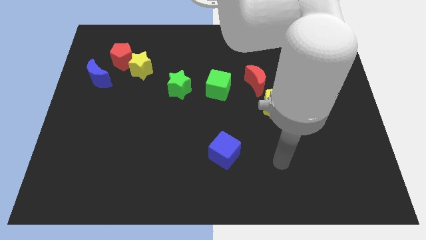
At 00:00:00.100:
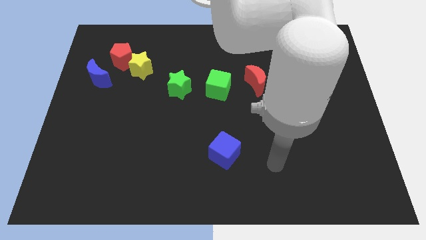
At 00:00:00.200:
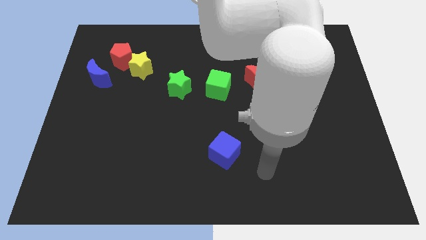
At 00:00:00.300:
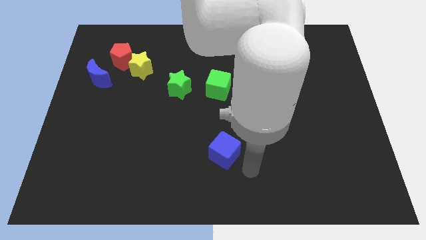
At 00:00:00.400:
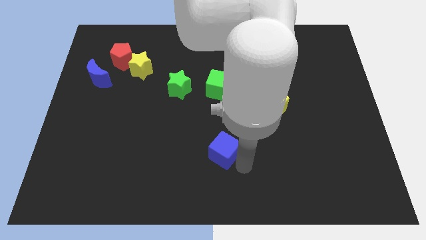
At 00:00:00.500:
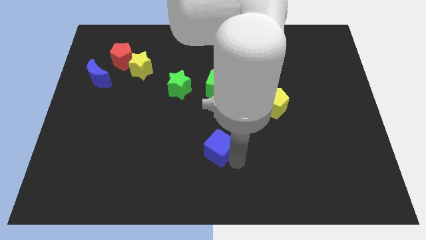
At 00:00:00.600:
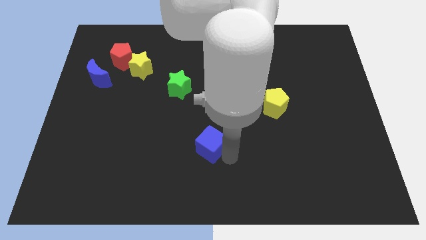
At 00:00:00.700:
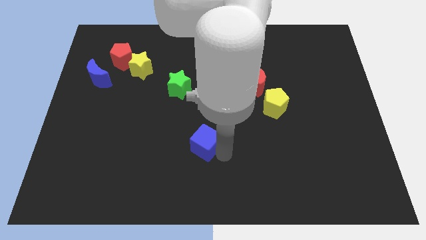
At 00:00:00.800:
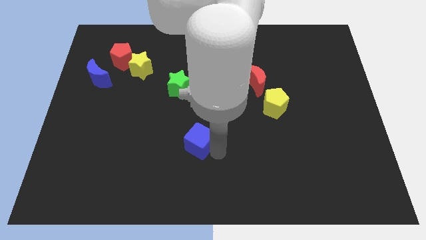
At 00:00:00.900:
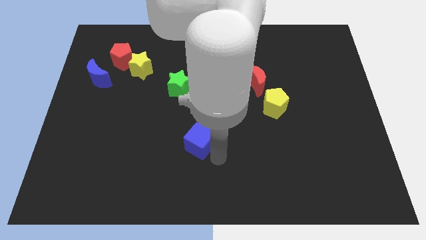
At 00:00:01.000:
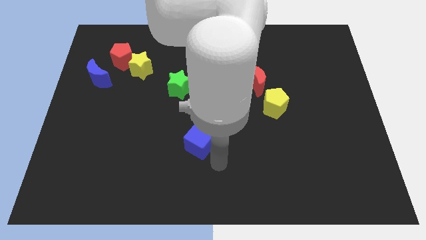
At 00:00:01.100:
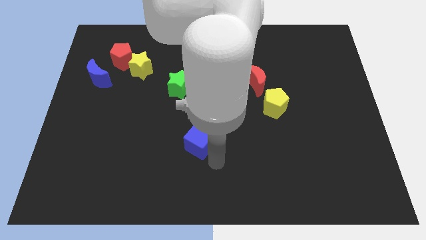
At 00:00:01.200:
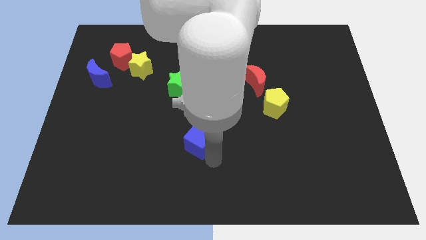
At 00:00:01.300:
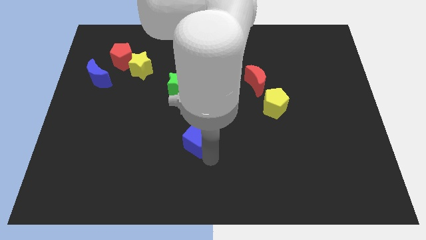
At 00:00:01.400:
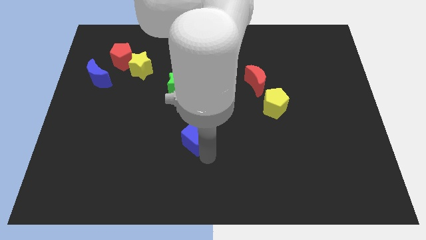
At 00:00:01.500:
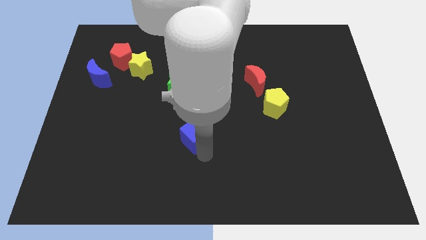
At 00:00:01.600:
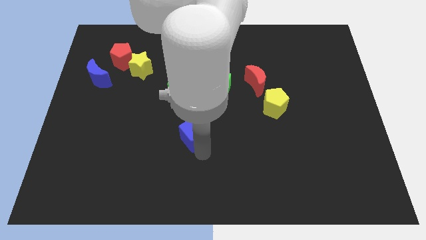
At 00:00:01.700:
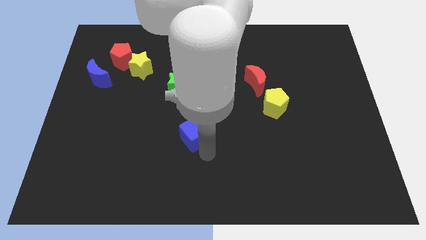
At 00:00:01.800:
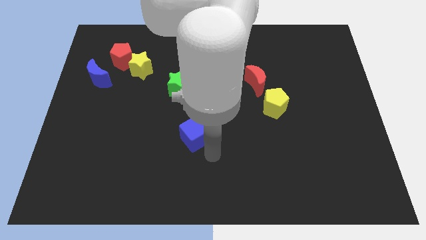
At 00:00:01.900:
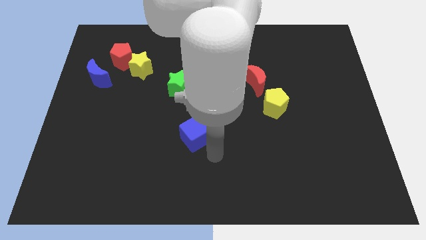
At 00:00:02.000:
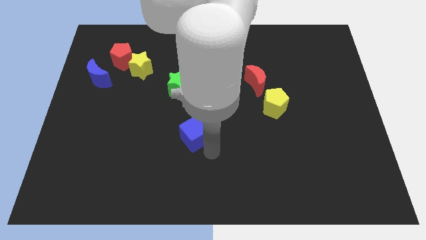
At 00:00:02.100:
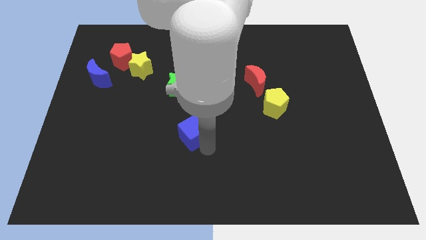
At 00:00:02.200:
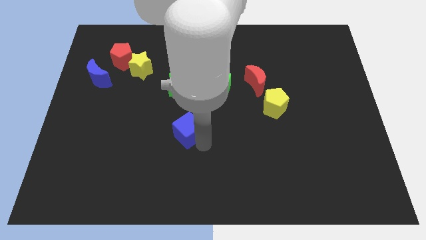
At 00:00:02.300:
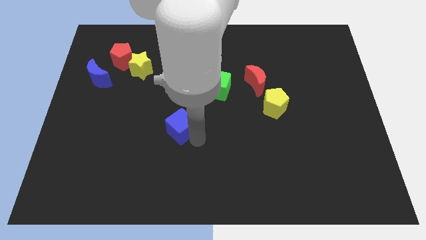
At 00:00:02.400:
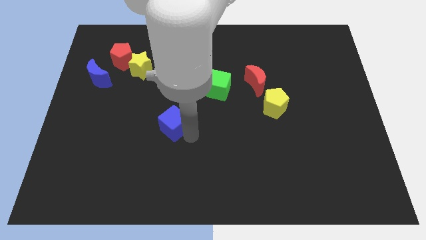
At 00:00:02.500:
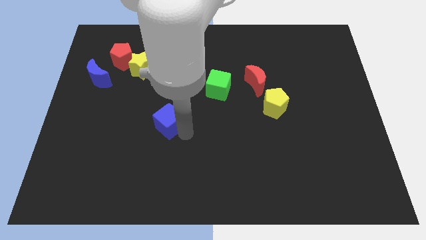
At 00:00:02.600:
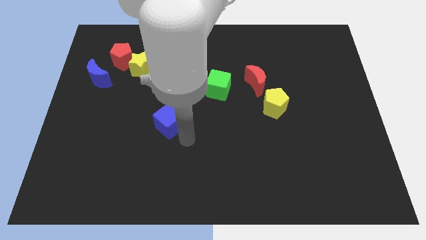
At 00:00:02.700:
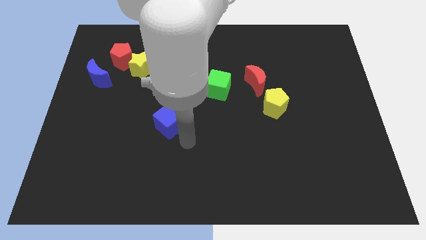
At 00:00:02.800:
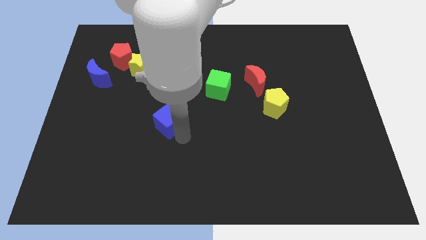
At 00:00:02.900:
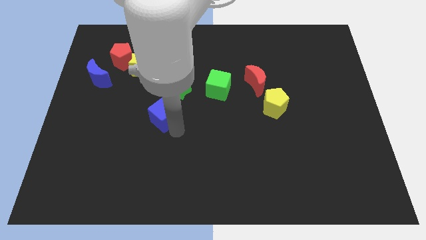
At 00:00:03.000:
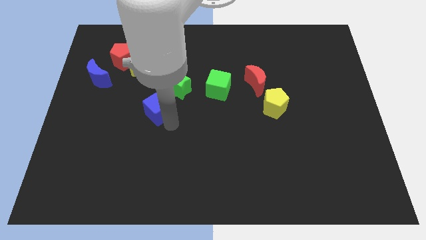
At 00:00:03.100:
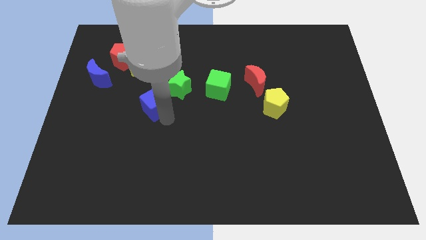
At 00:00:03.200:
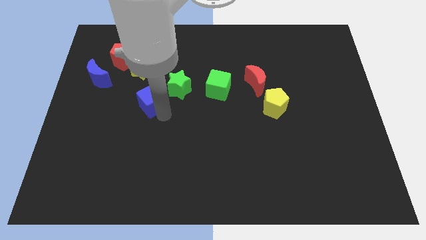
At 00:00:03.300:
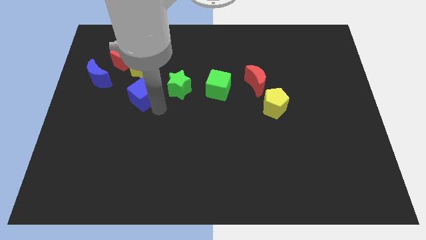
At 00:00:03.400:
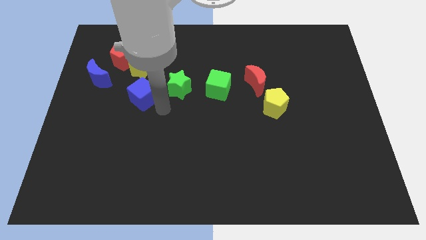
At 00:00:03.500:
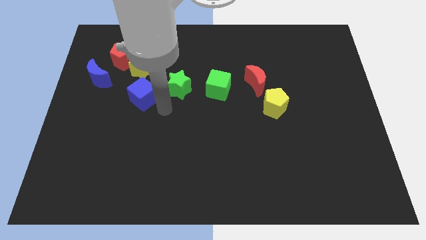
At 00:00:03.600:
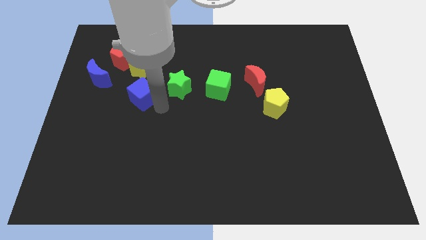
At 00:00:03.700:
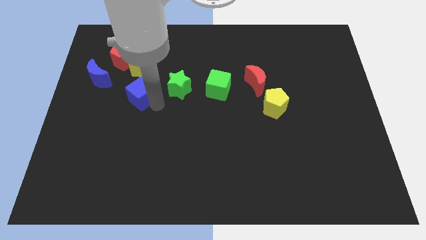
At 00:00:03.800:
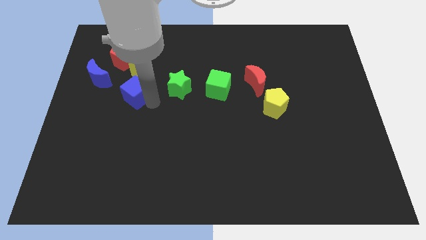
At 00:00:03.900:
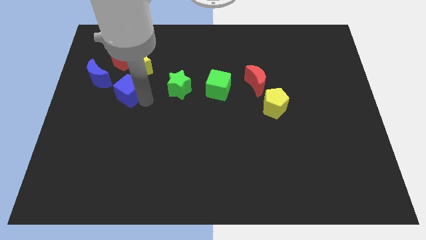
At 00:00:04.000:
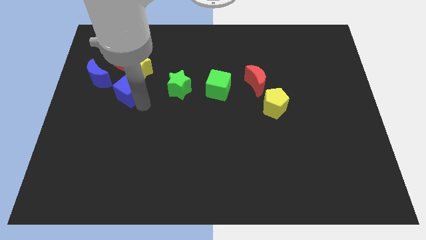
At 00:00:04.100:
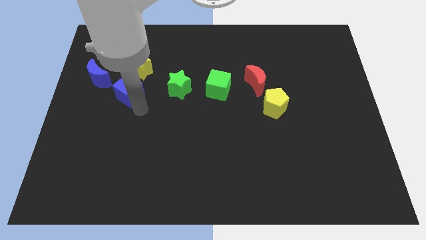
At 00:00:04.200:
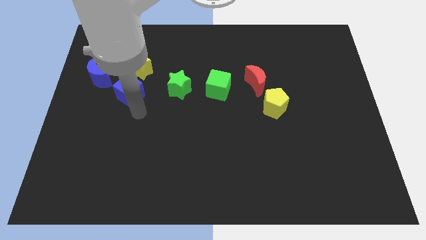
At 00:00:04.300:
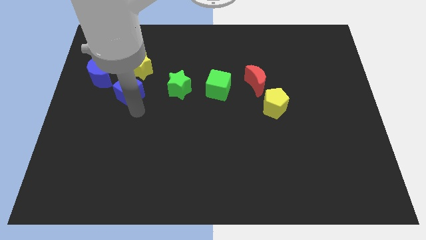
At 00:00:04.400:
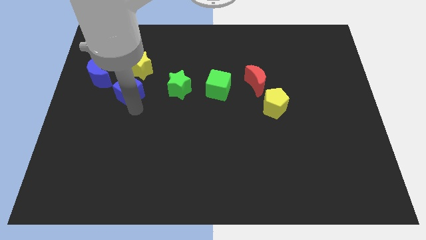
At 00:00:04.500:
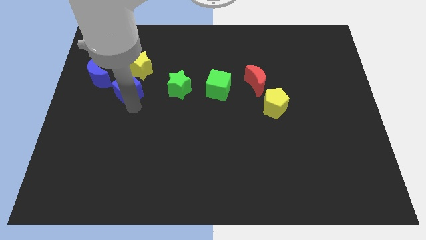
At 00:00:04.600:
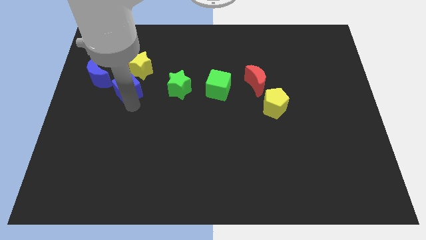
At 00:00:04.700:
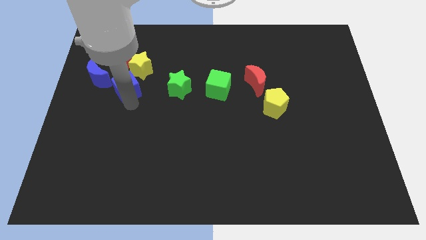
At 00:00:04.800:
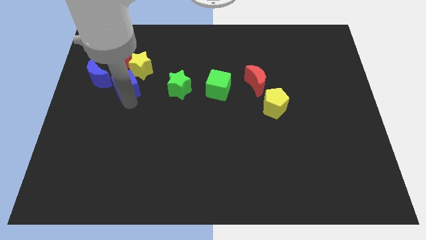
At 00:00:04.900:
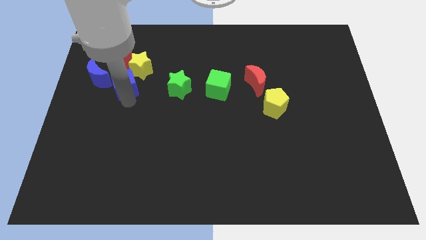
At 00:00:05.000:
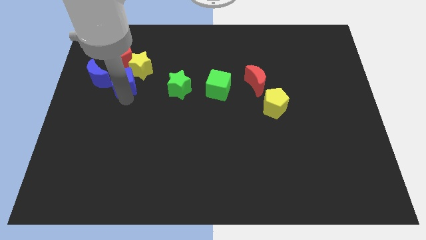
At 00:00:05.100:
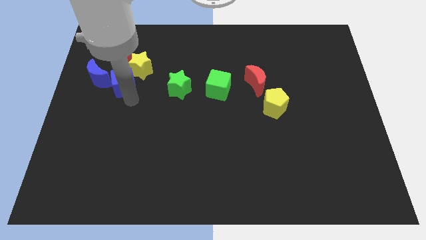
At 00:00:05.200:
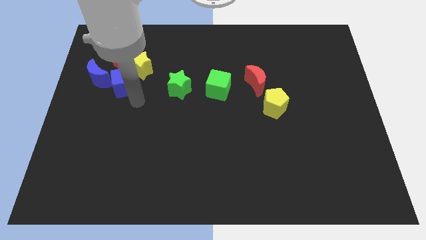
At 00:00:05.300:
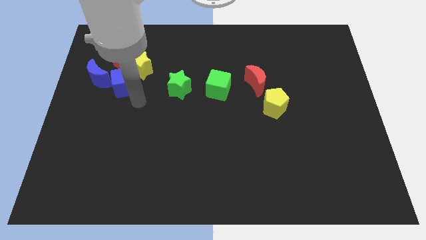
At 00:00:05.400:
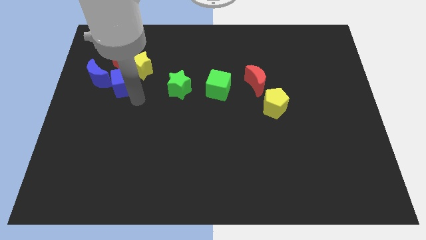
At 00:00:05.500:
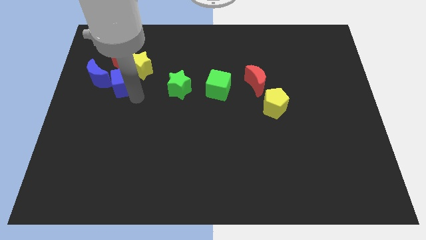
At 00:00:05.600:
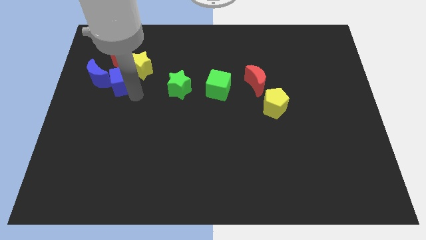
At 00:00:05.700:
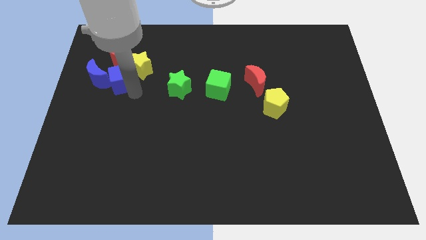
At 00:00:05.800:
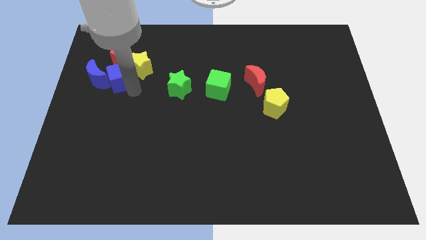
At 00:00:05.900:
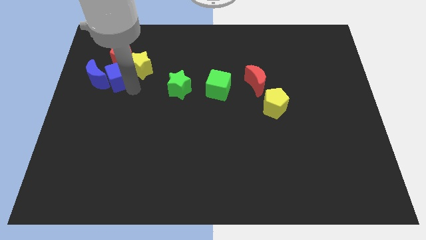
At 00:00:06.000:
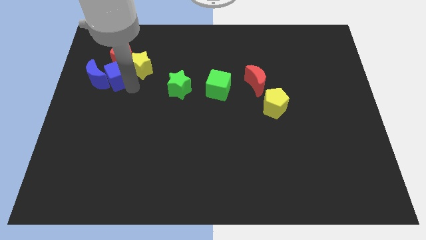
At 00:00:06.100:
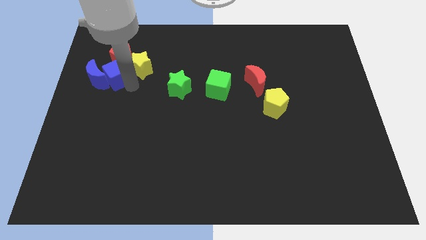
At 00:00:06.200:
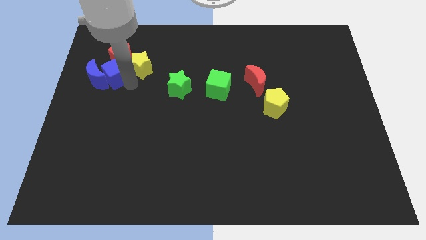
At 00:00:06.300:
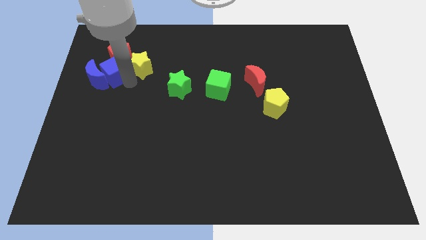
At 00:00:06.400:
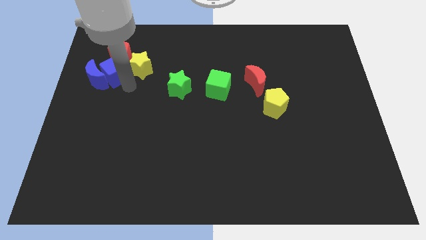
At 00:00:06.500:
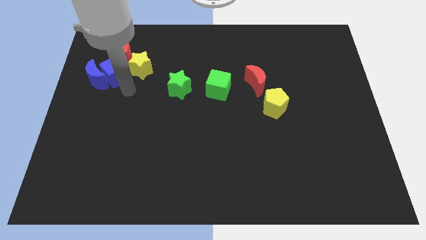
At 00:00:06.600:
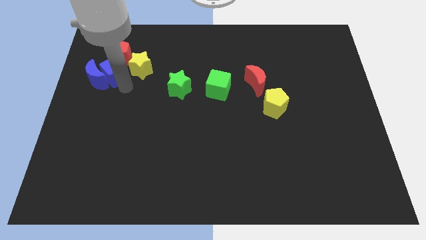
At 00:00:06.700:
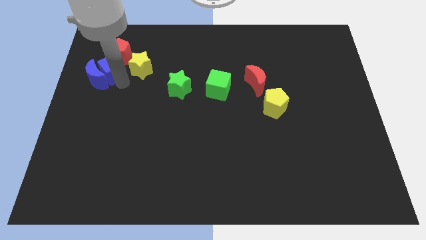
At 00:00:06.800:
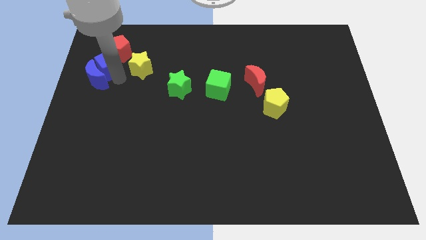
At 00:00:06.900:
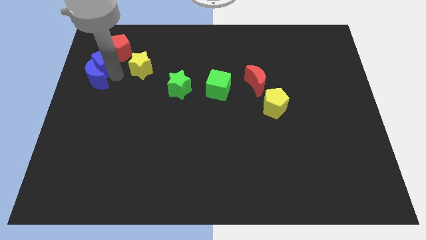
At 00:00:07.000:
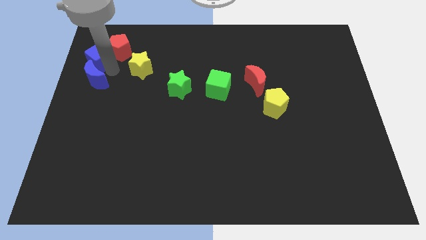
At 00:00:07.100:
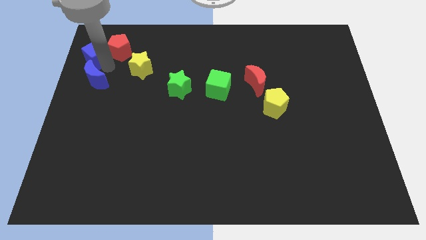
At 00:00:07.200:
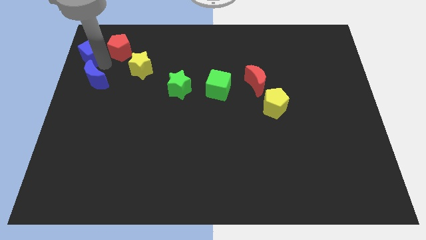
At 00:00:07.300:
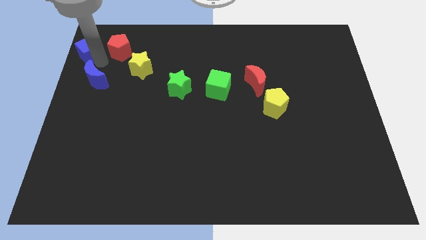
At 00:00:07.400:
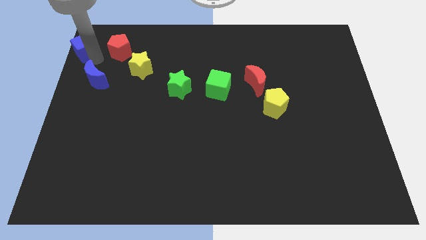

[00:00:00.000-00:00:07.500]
push the blue cube to the upper left corner

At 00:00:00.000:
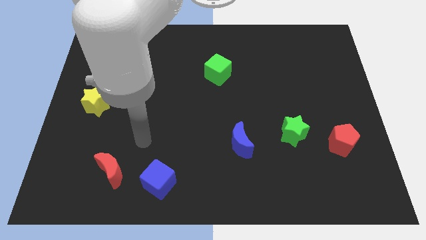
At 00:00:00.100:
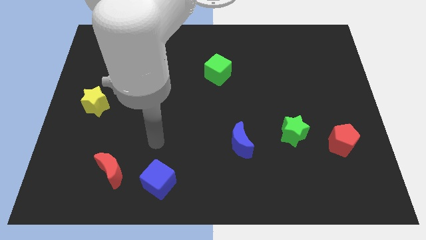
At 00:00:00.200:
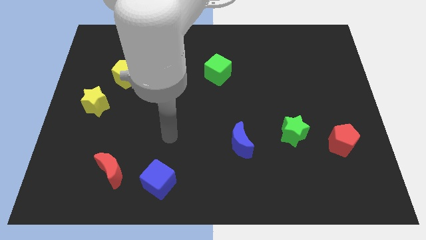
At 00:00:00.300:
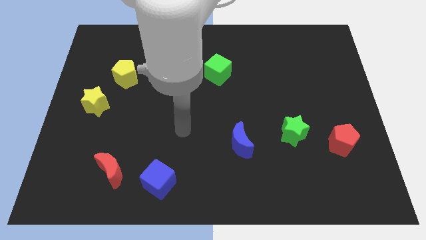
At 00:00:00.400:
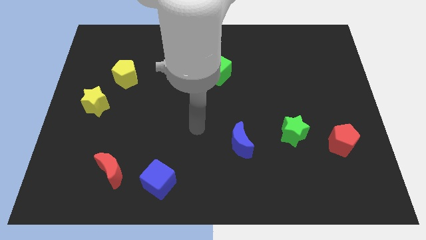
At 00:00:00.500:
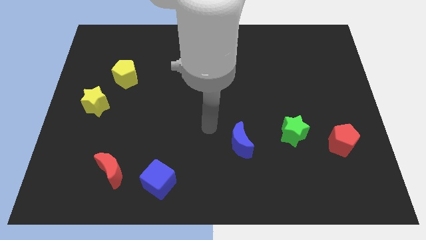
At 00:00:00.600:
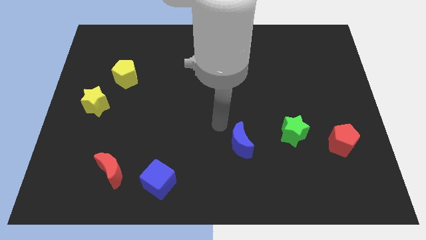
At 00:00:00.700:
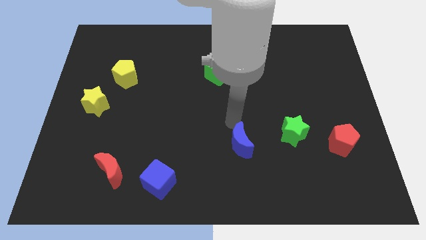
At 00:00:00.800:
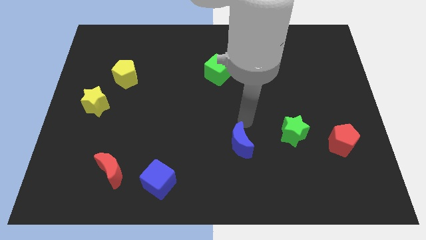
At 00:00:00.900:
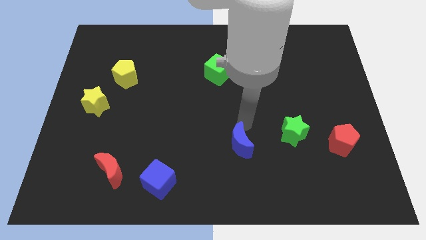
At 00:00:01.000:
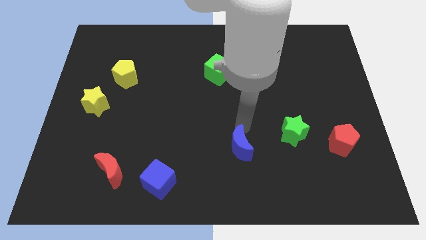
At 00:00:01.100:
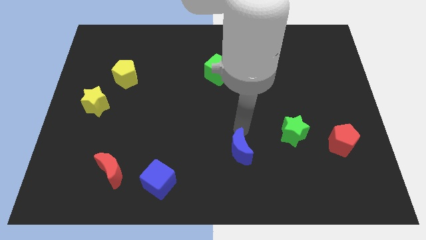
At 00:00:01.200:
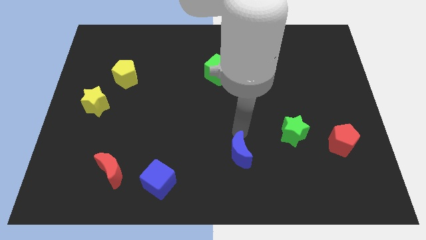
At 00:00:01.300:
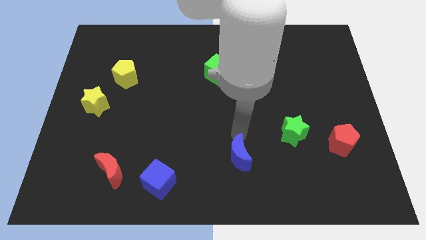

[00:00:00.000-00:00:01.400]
slide the blue moon to the bottom
